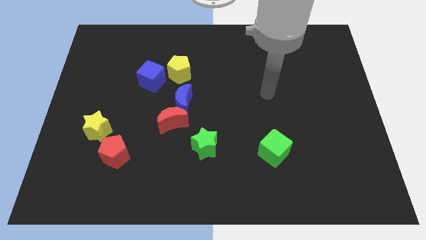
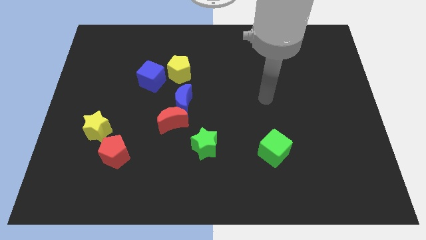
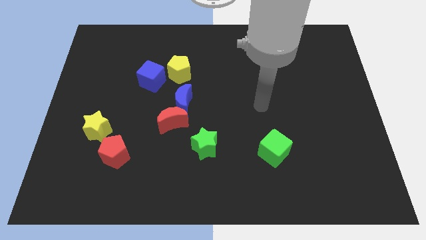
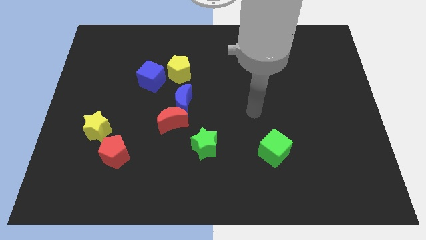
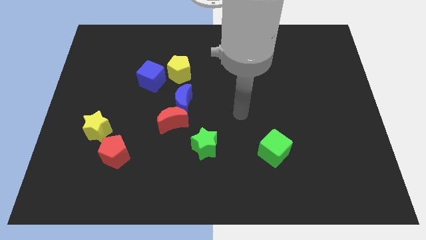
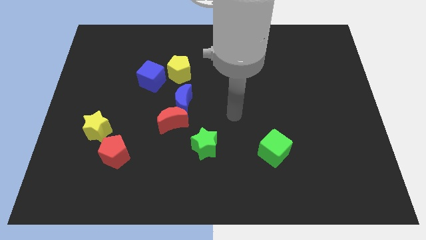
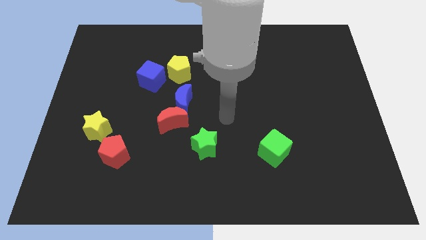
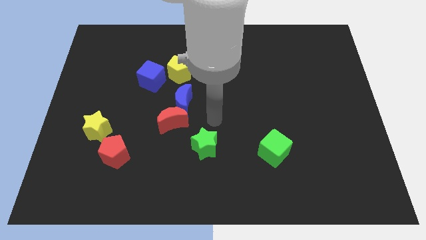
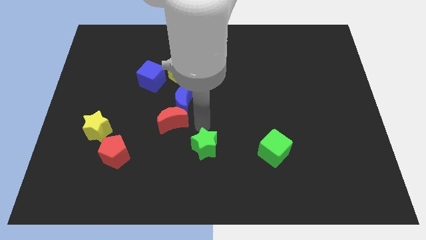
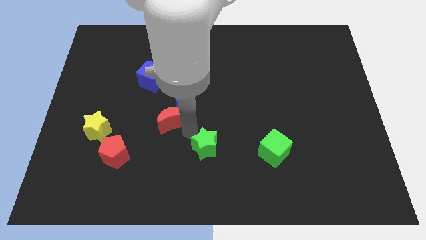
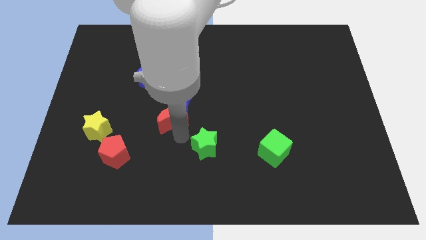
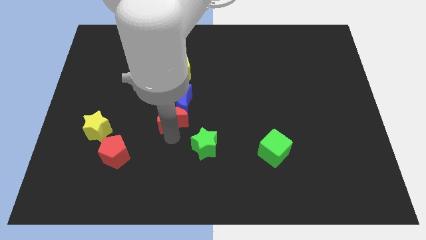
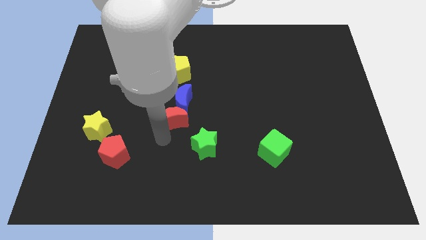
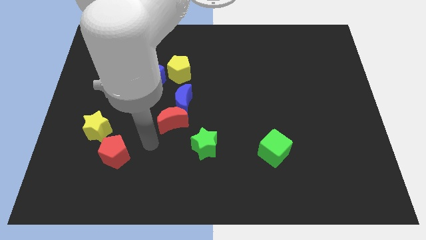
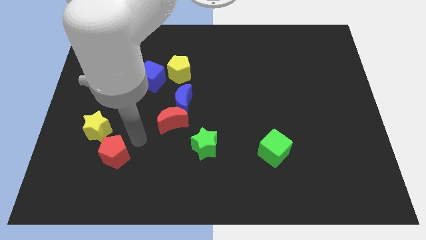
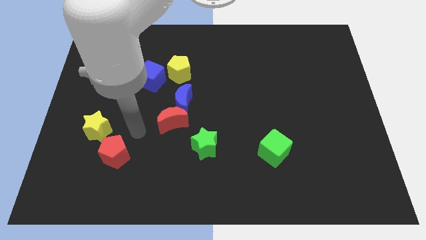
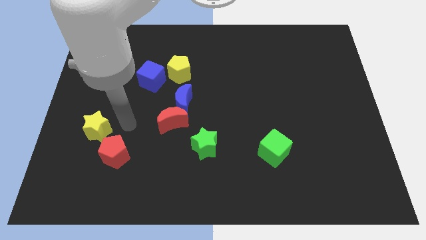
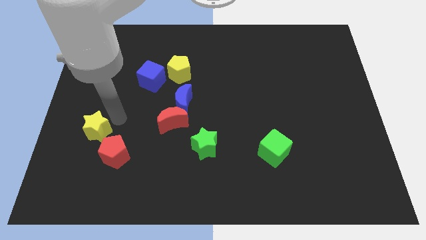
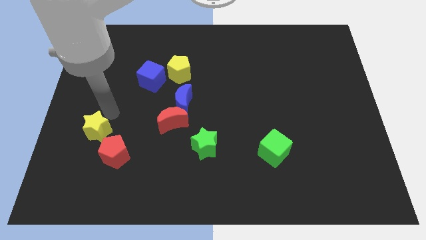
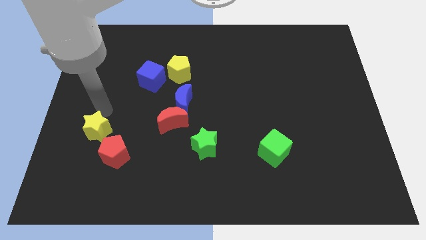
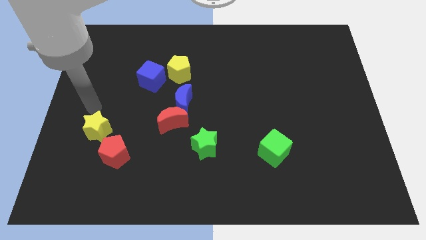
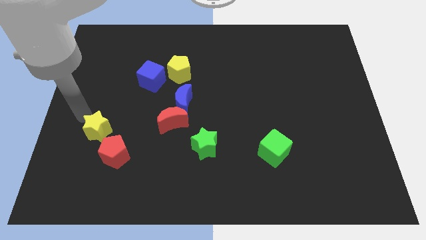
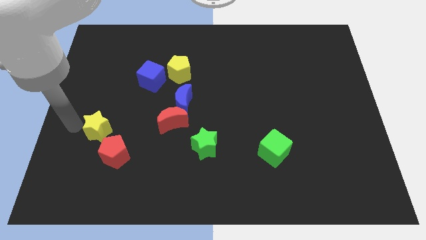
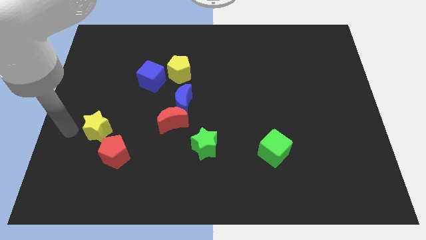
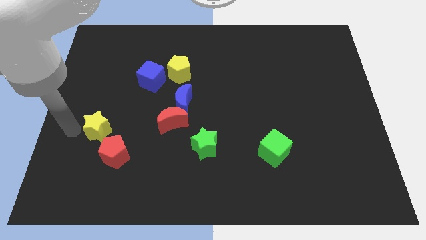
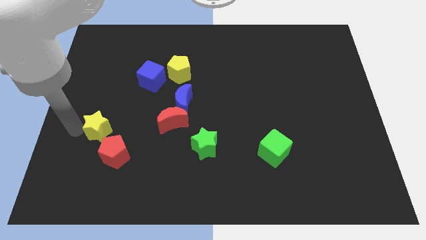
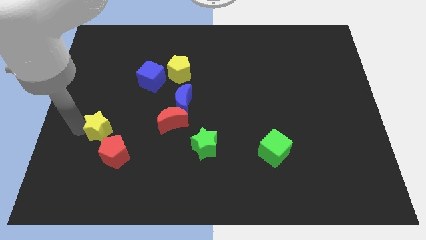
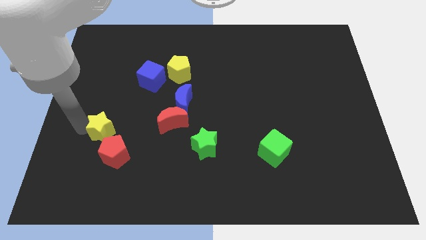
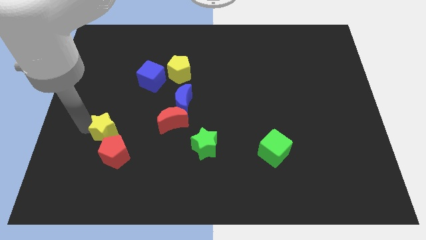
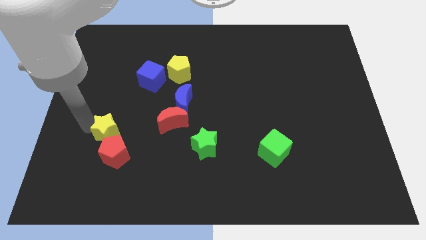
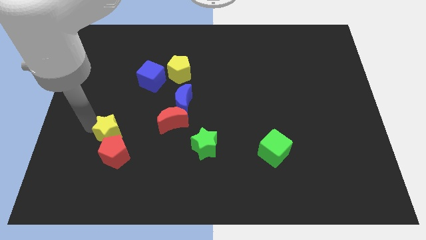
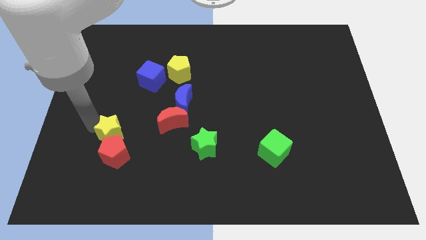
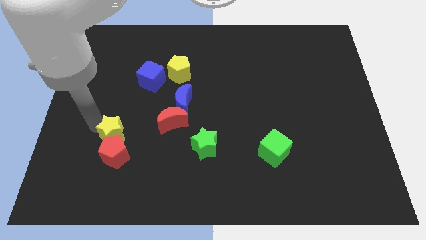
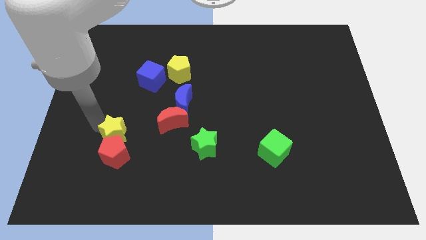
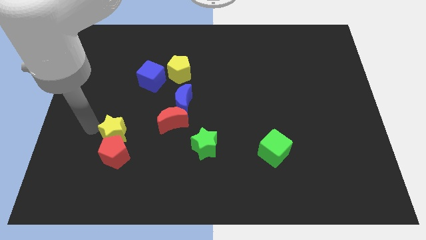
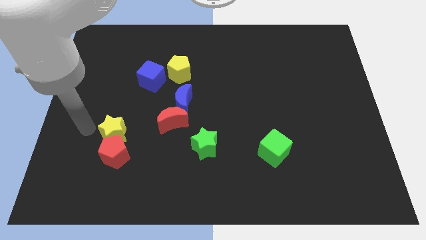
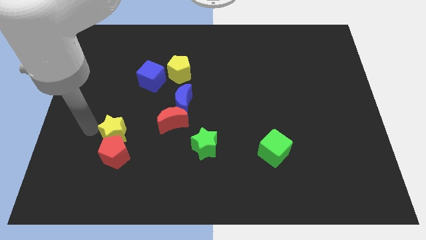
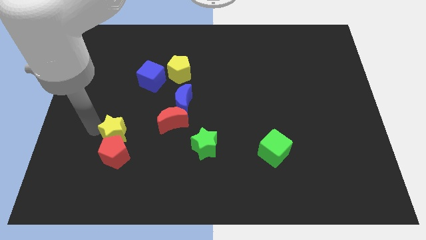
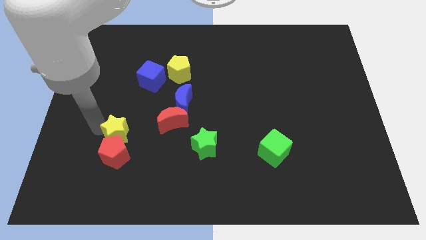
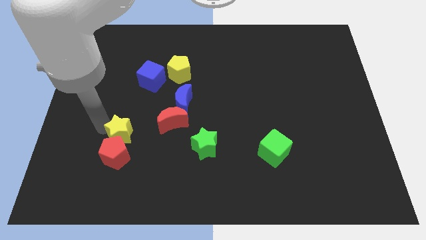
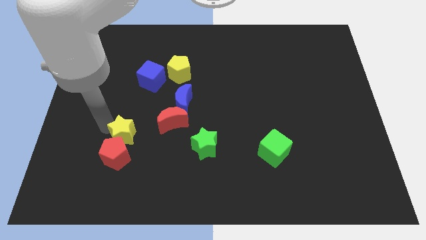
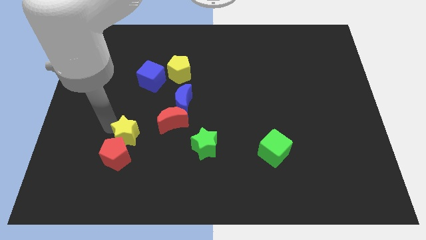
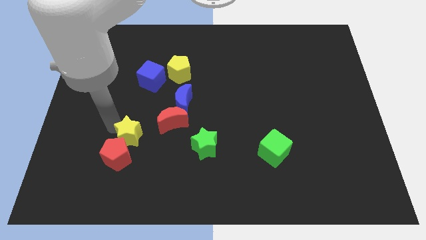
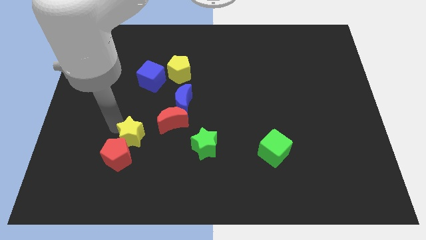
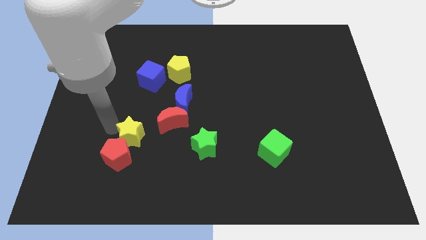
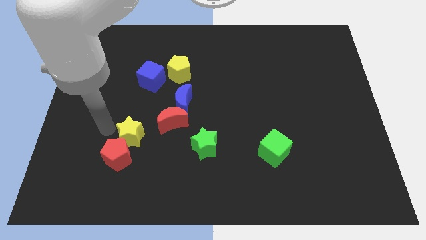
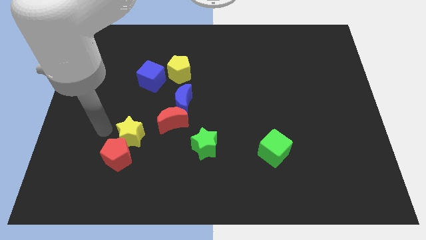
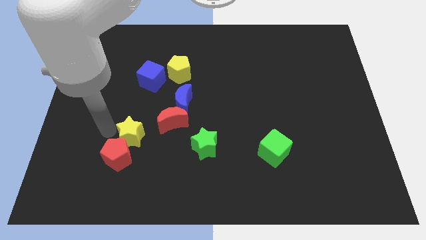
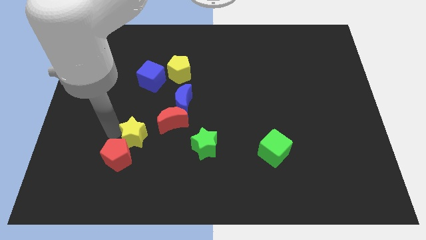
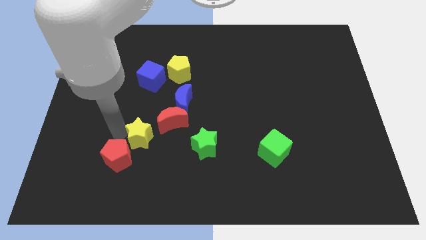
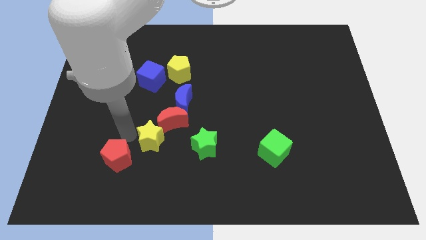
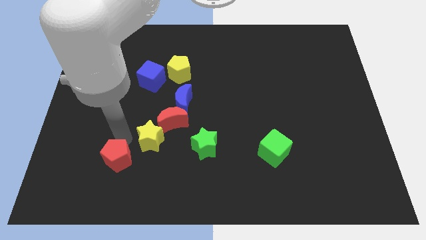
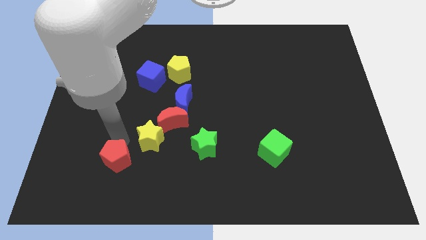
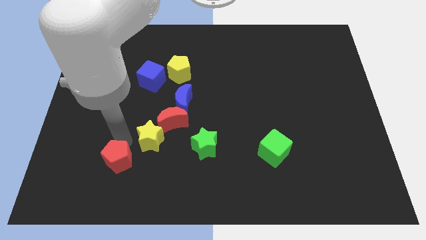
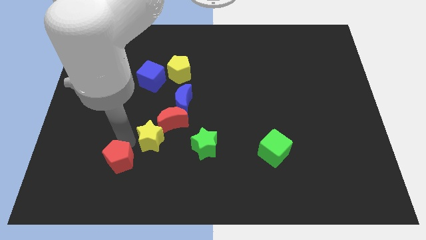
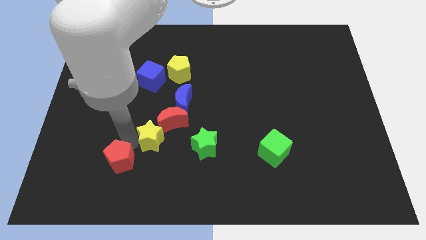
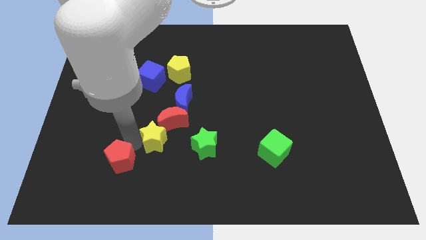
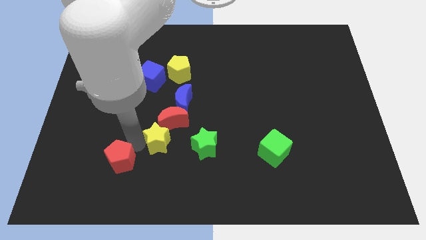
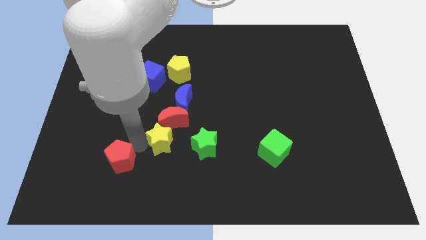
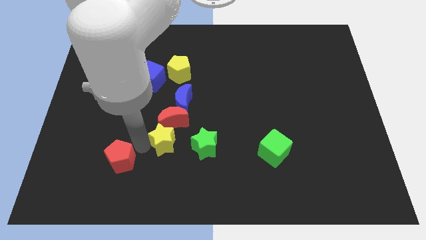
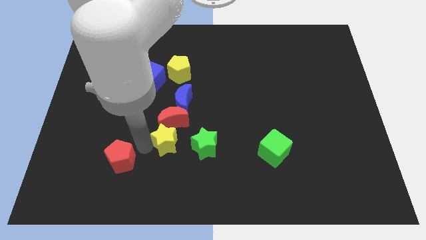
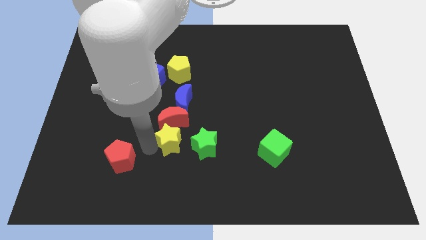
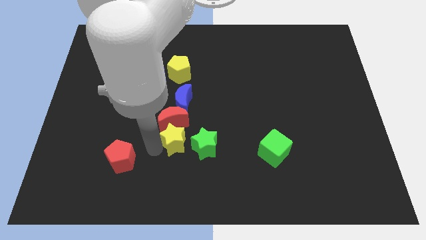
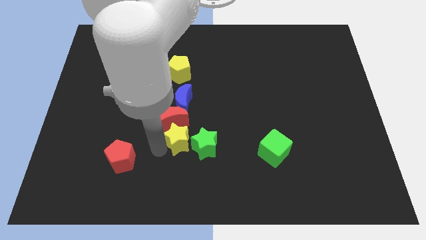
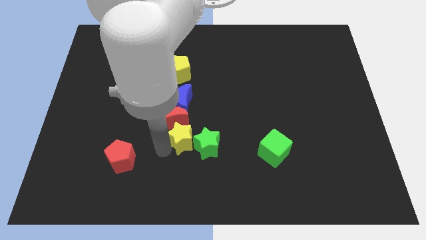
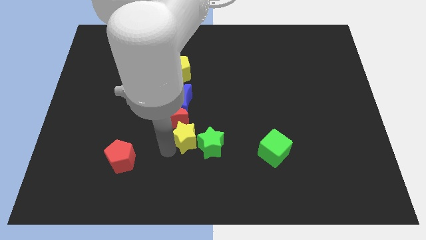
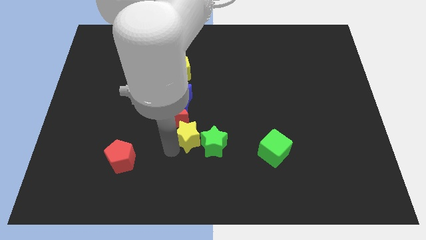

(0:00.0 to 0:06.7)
slide the yellow star right

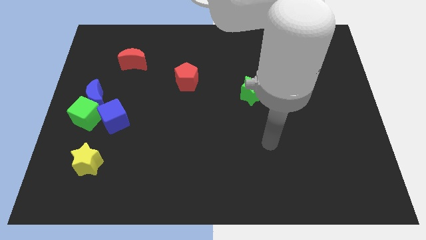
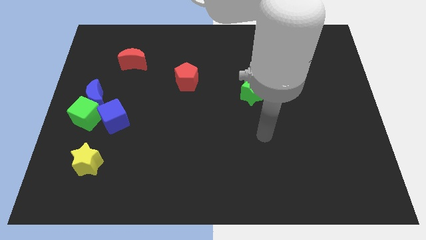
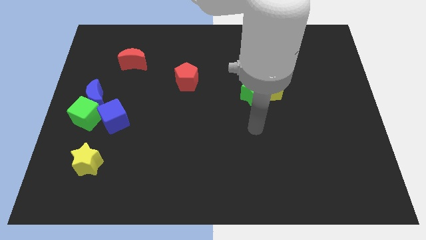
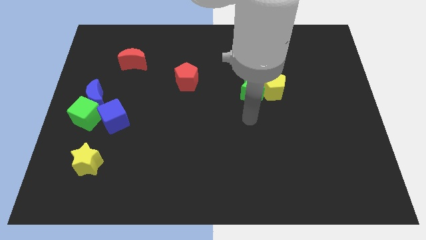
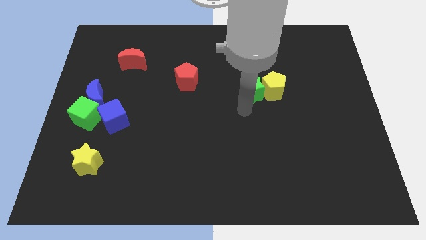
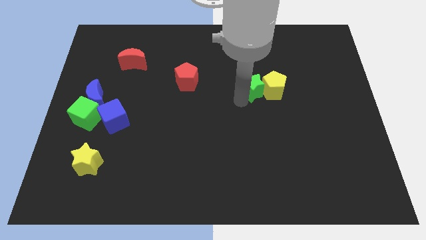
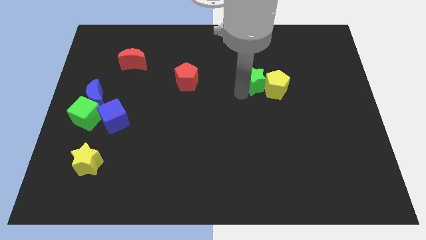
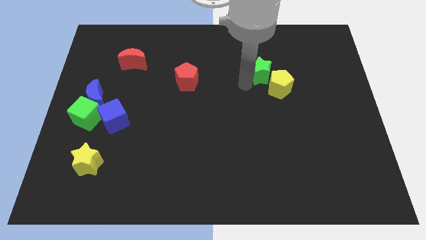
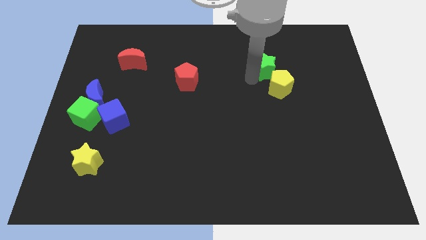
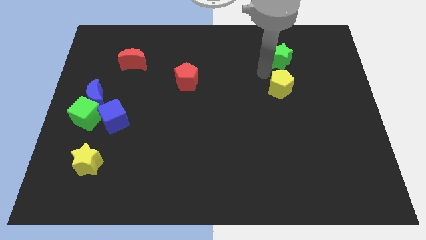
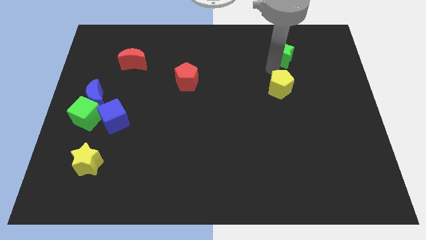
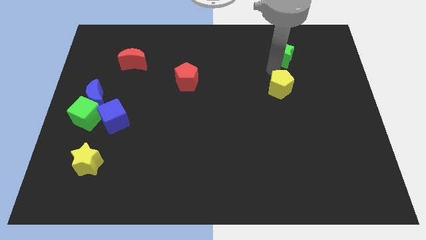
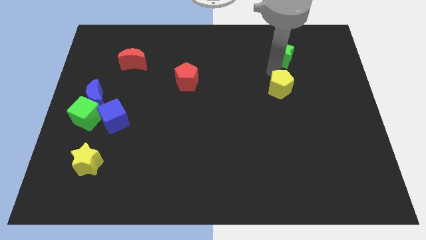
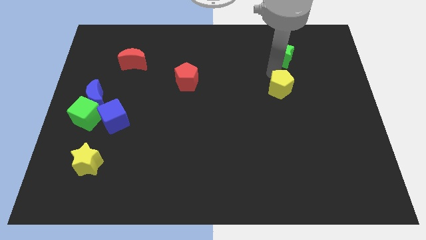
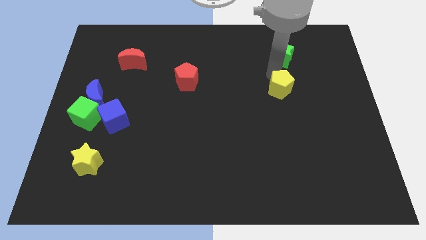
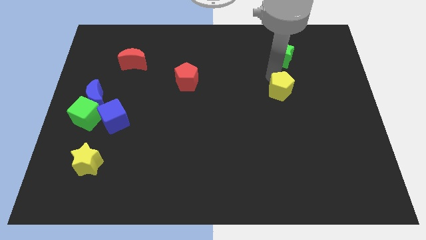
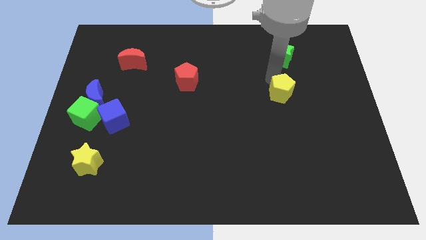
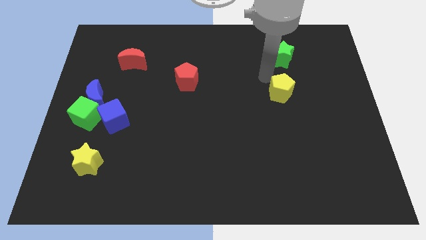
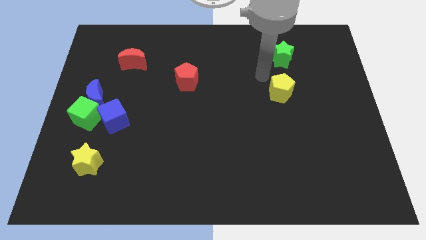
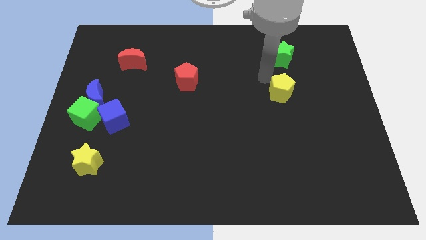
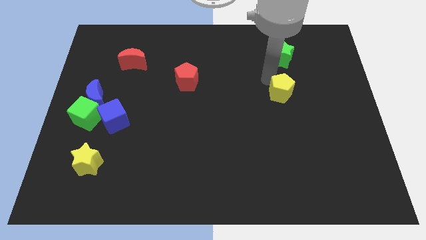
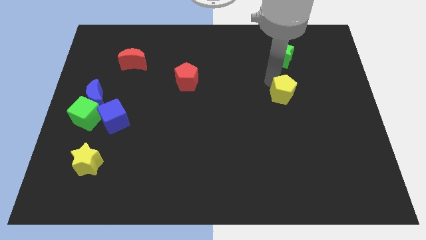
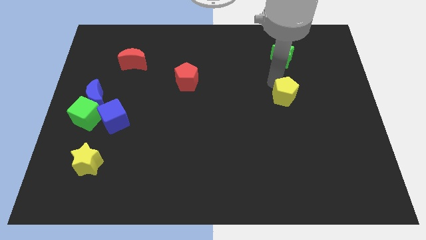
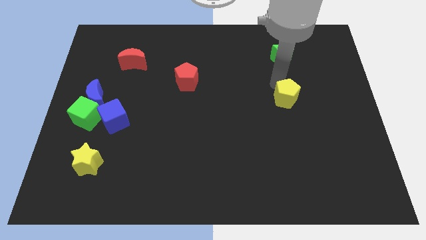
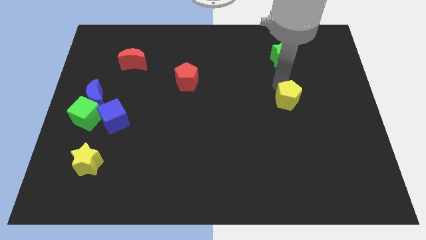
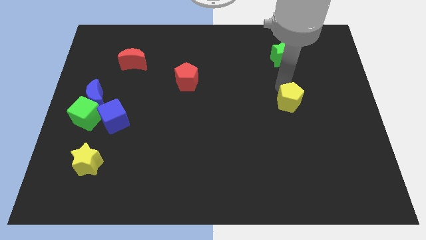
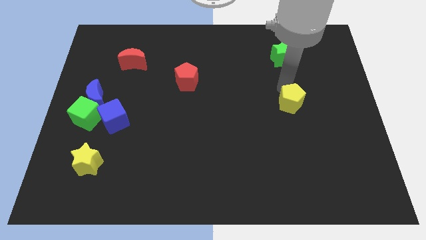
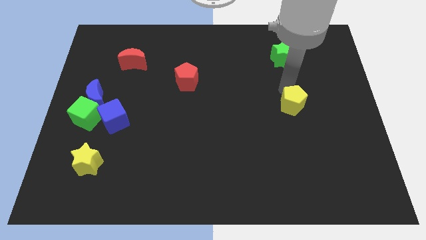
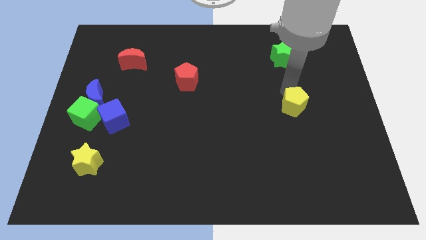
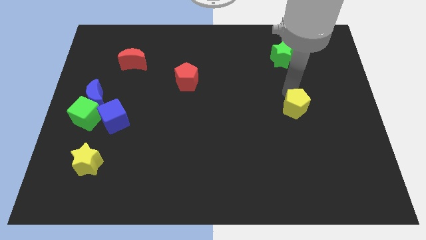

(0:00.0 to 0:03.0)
slide the yellow pentagon diagonally down and right a little
